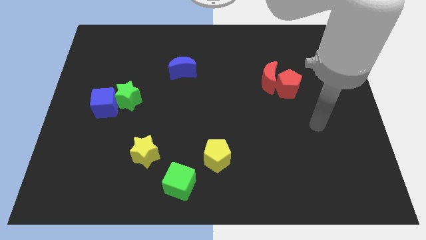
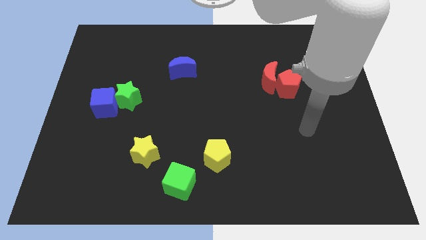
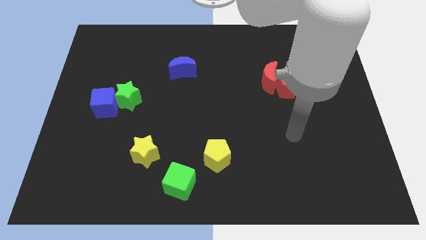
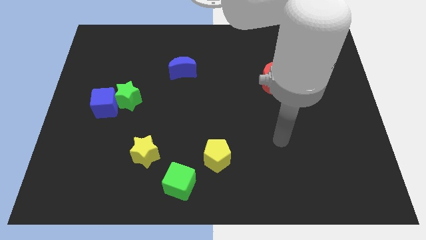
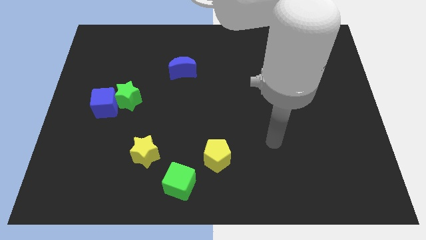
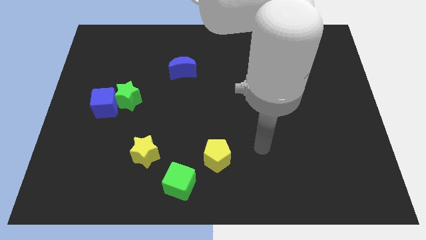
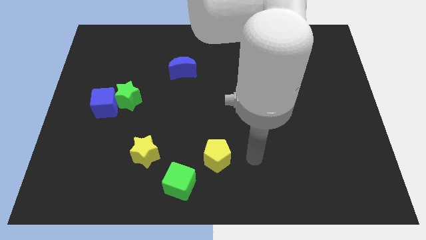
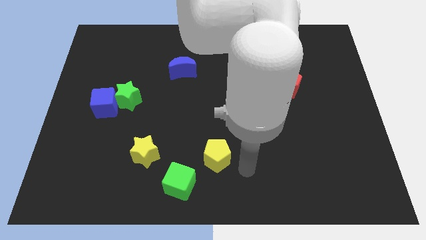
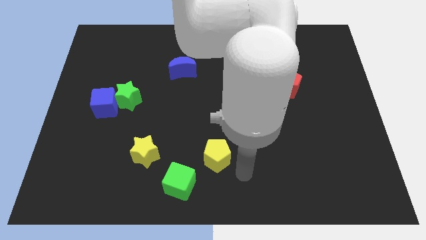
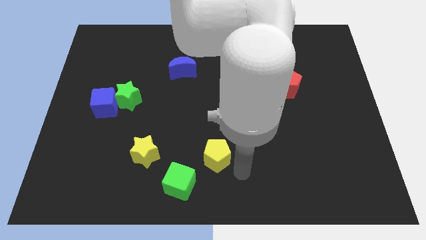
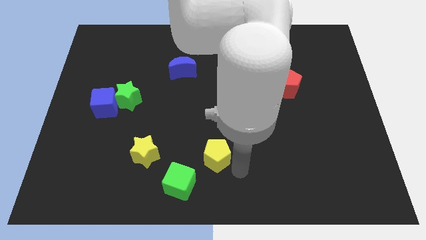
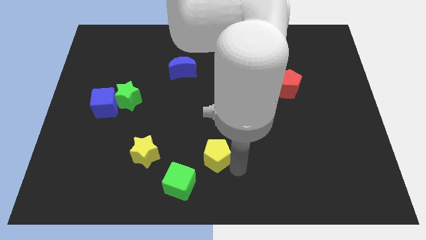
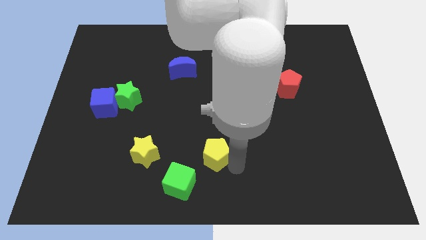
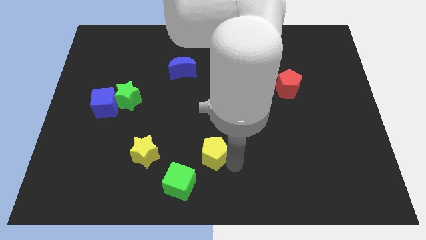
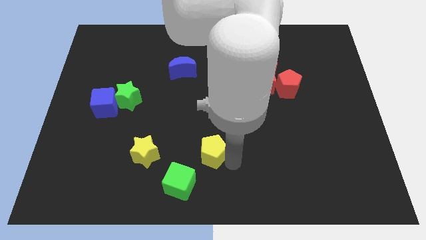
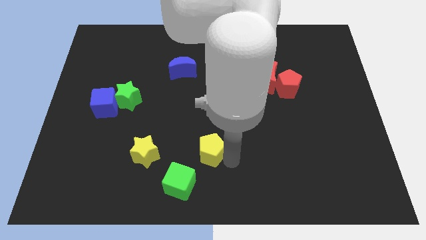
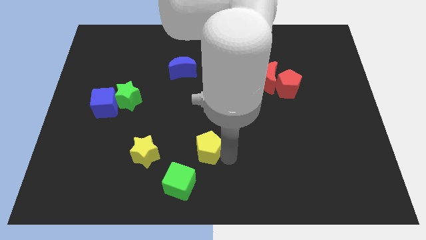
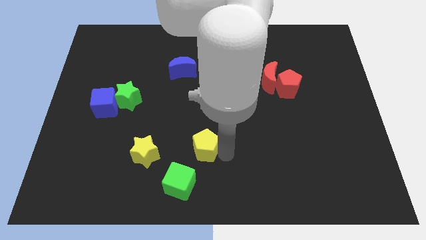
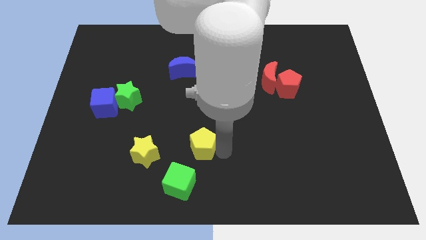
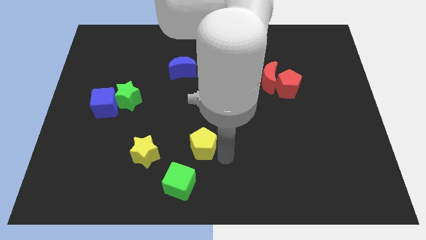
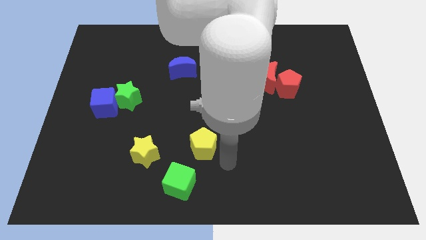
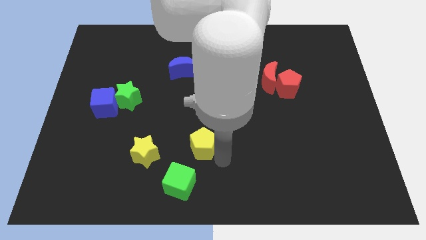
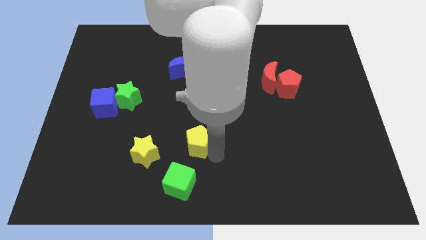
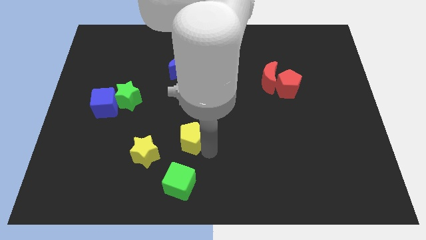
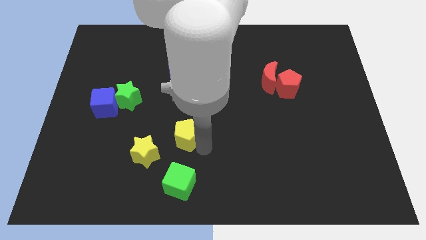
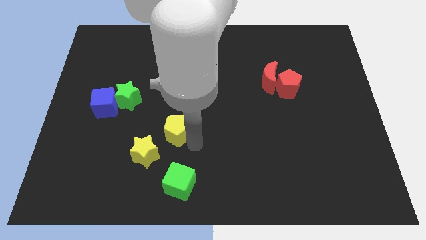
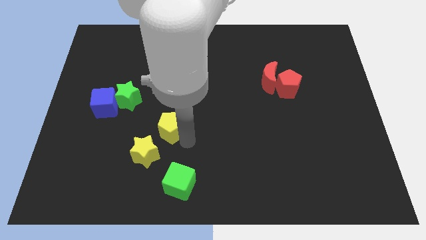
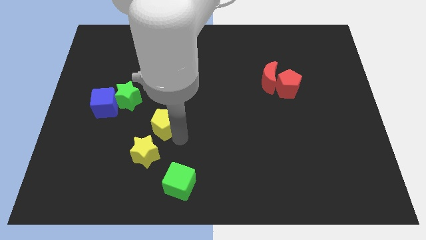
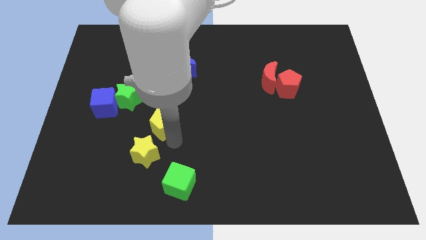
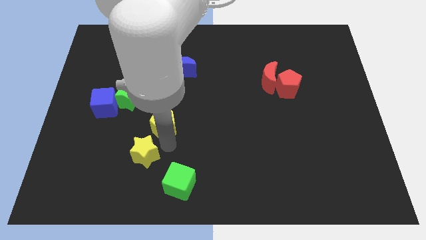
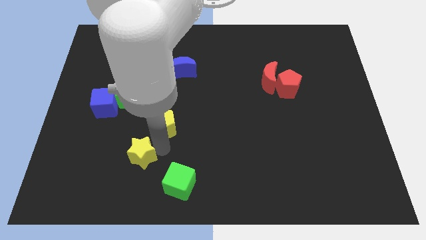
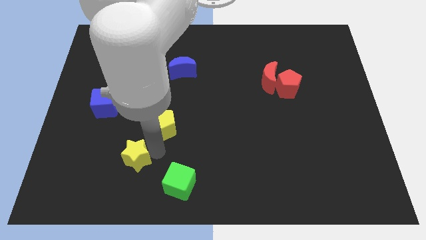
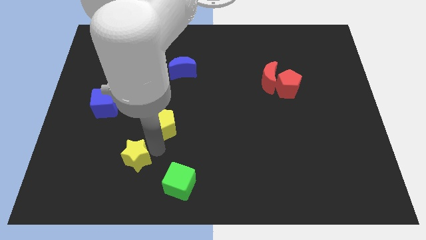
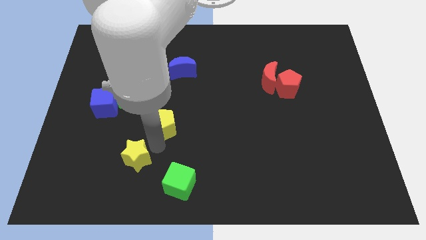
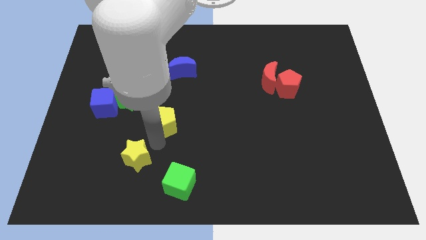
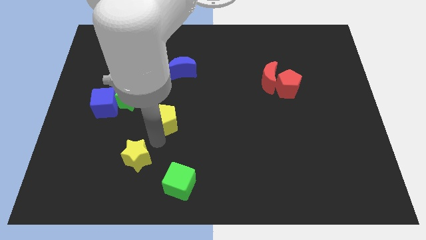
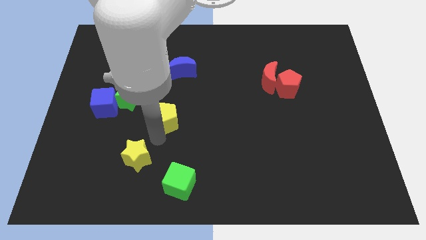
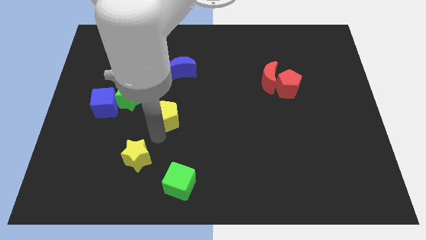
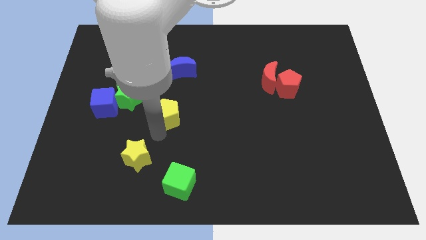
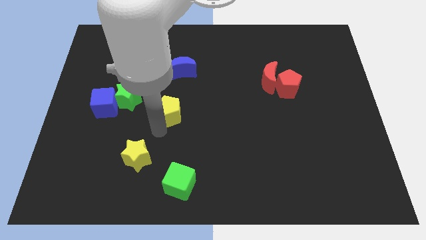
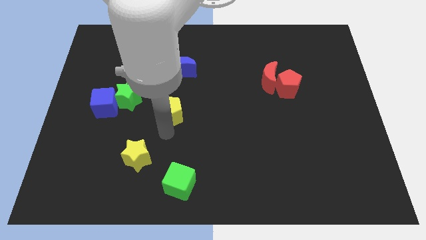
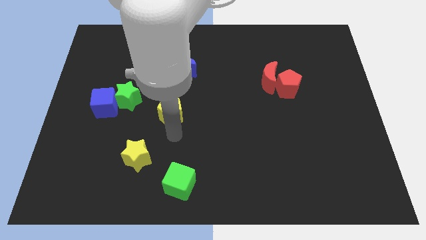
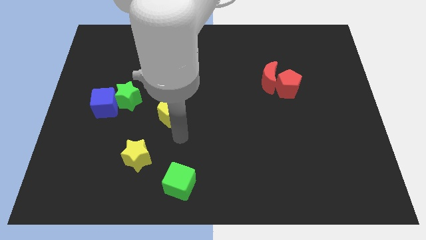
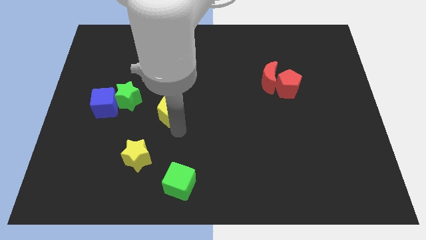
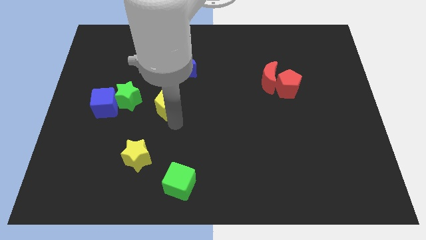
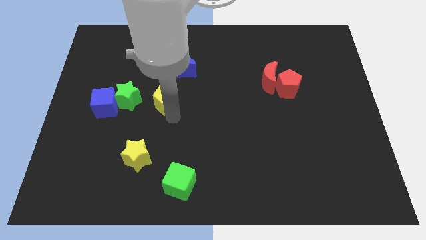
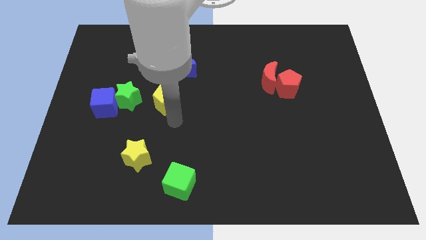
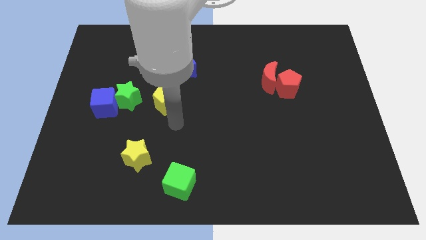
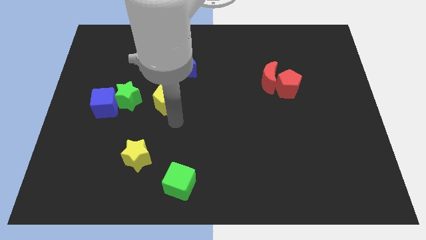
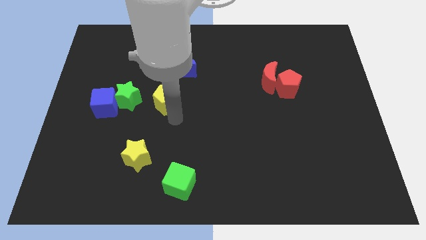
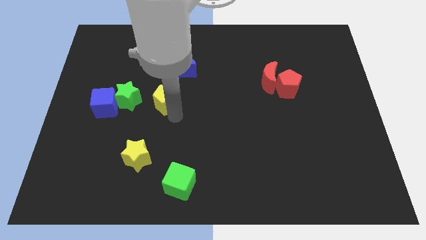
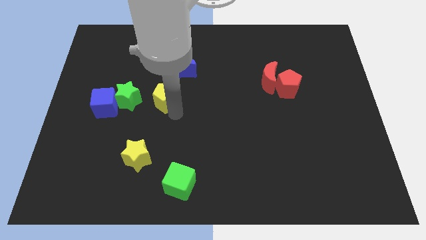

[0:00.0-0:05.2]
slide the yellow pentagon diagonally down and to the left of the blue moon

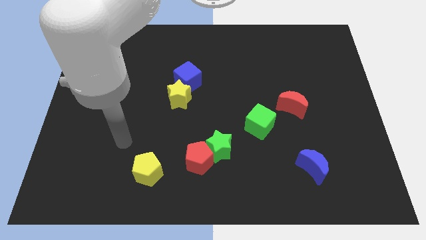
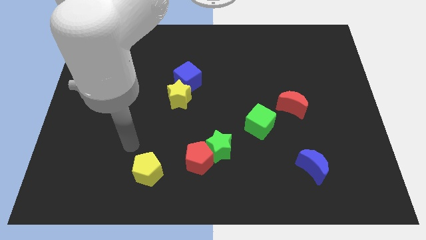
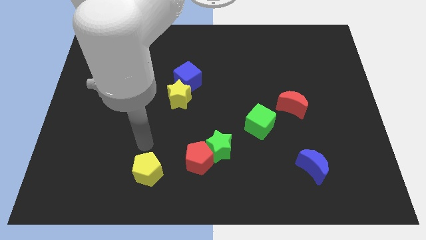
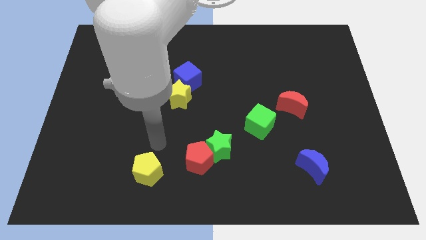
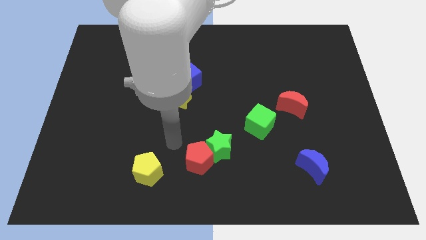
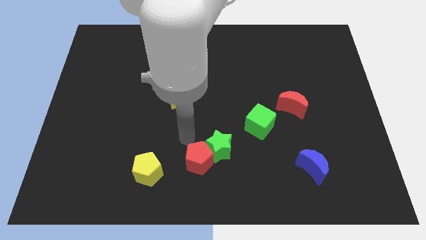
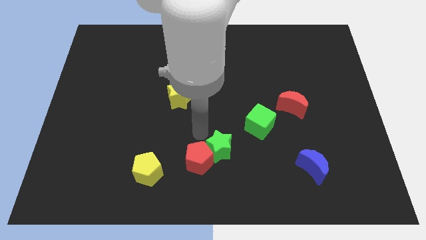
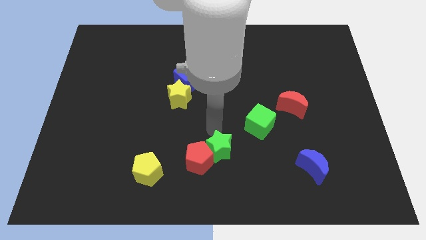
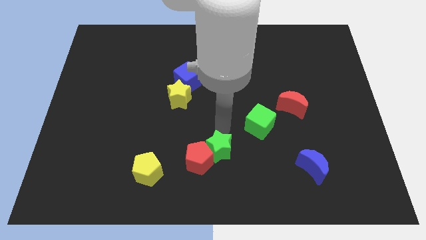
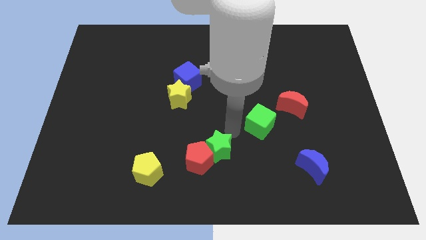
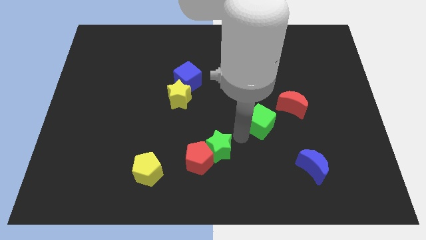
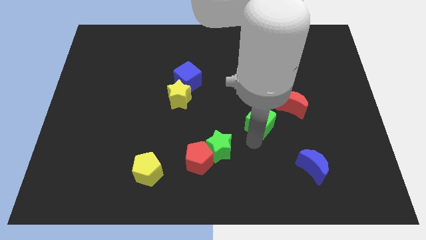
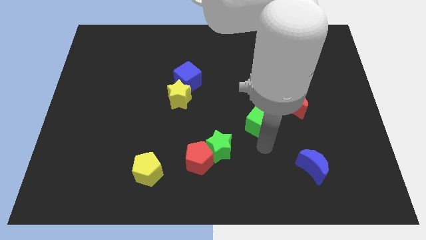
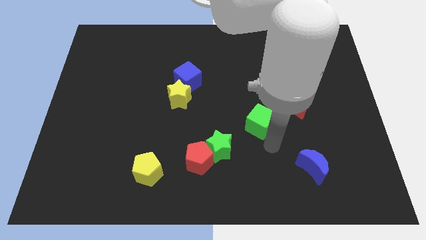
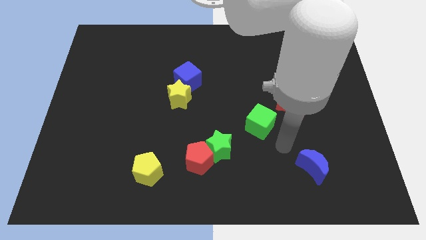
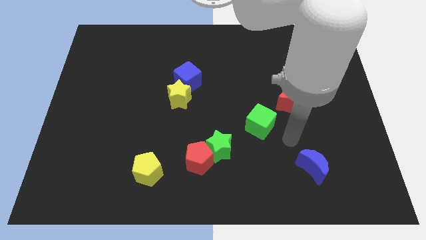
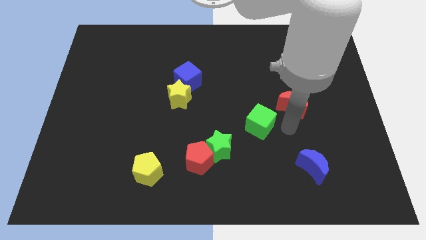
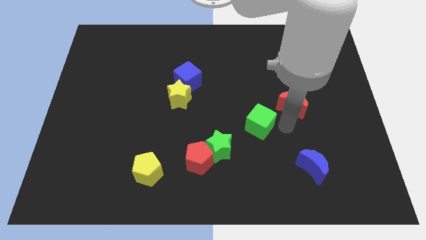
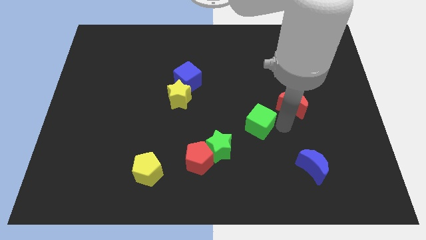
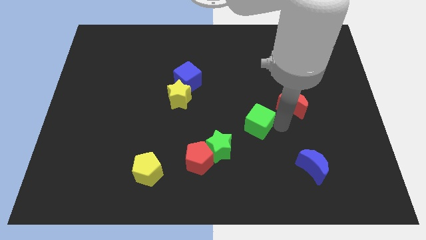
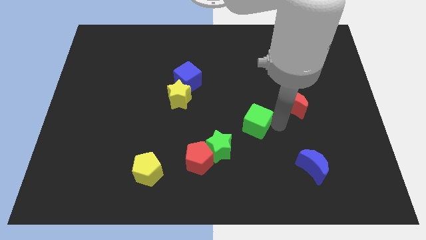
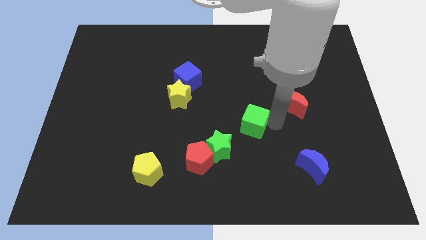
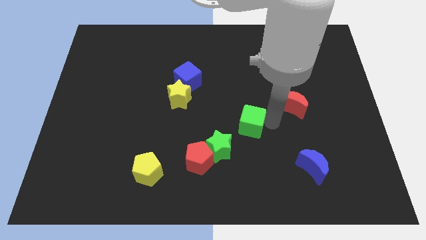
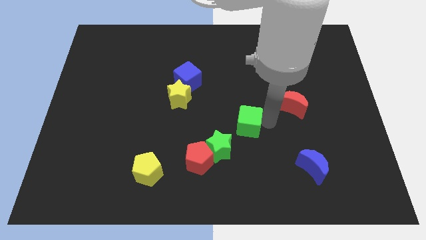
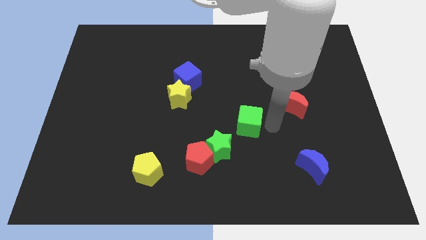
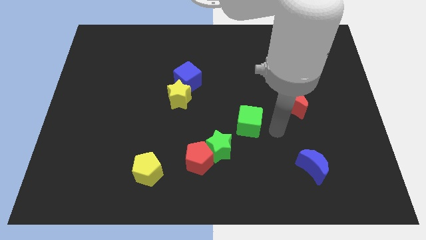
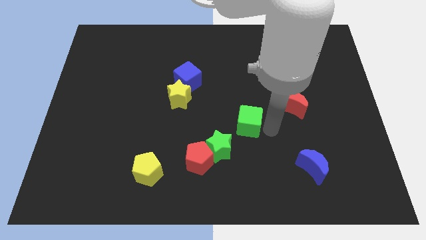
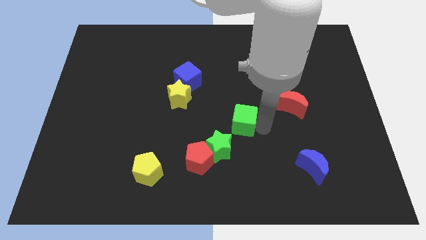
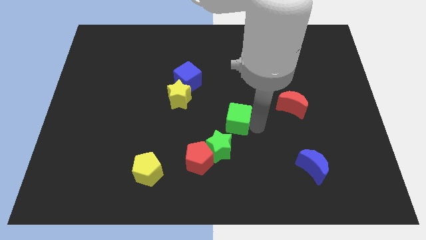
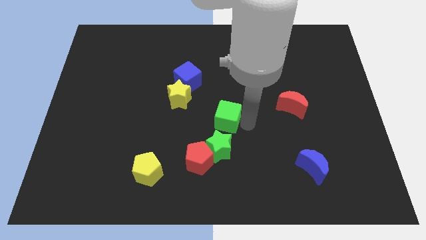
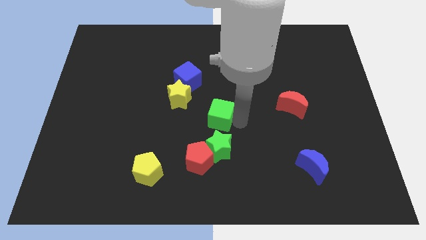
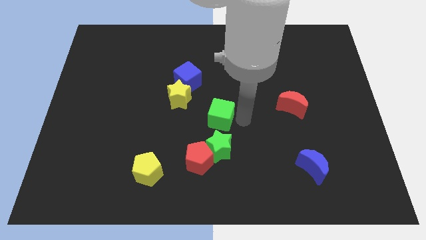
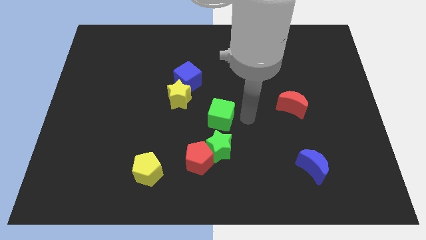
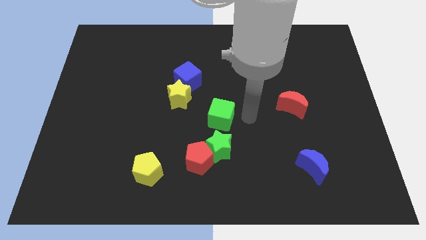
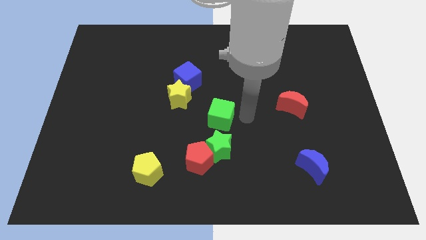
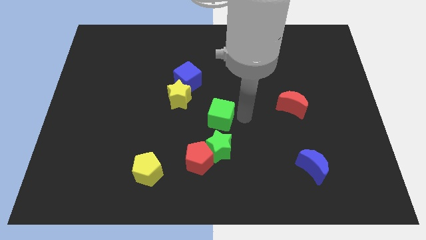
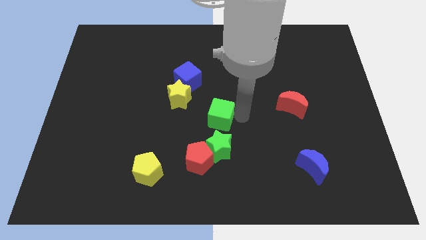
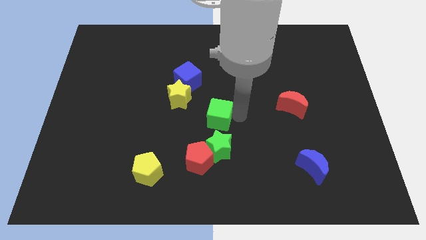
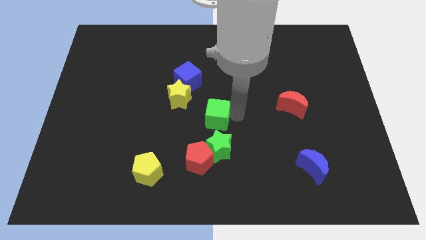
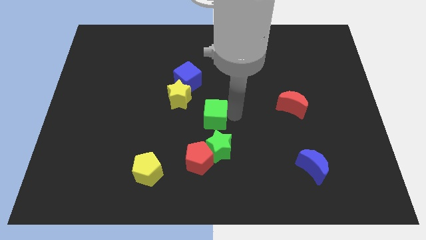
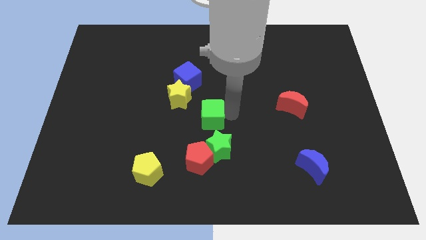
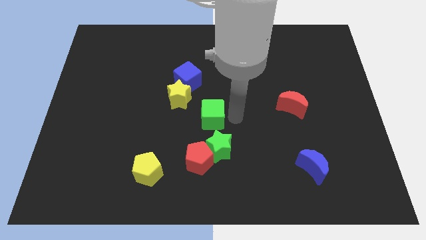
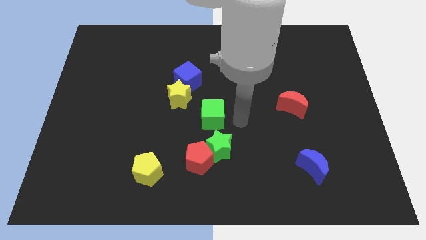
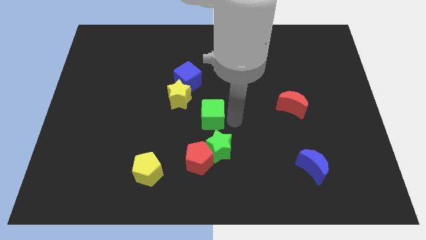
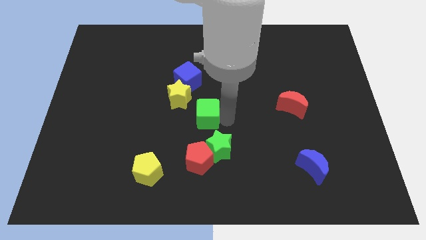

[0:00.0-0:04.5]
push the green cube to the bottom side of the blue cube
